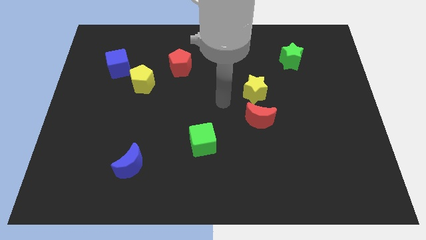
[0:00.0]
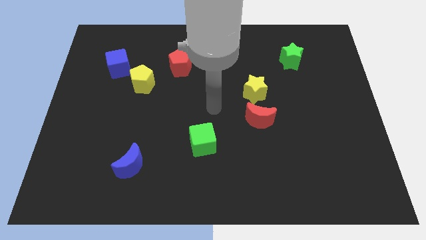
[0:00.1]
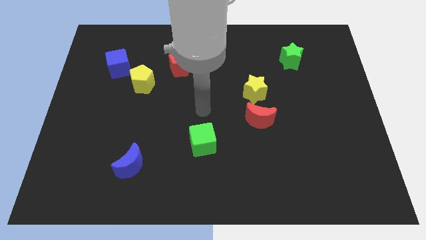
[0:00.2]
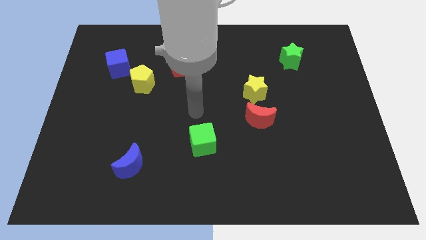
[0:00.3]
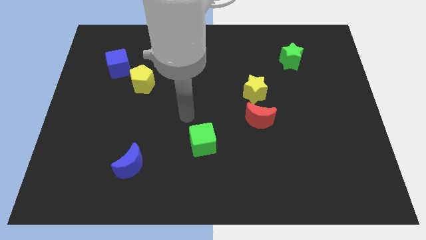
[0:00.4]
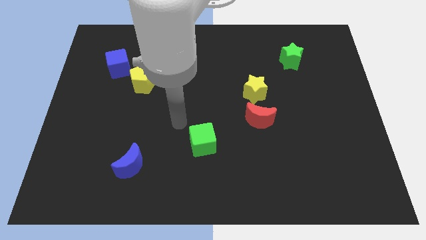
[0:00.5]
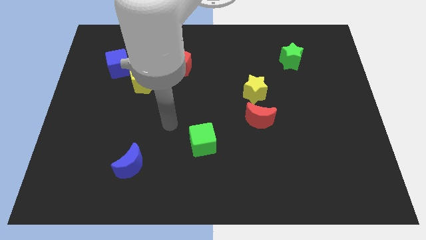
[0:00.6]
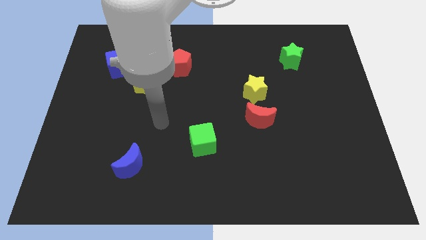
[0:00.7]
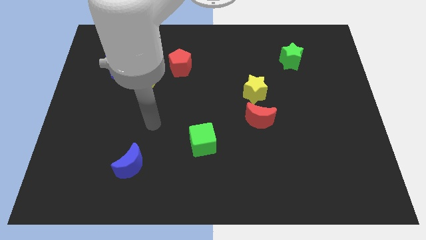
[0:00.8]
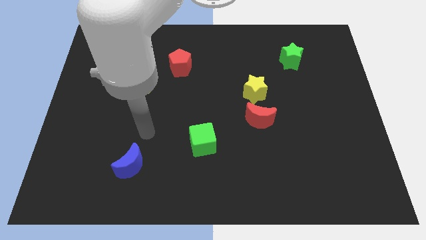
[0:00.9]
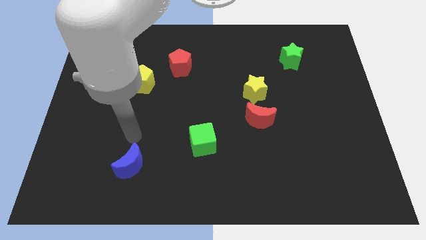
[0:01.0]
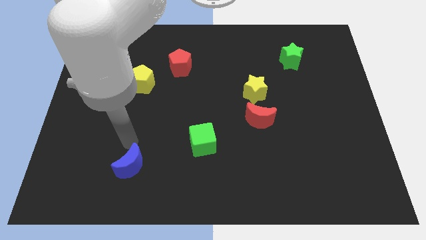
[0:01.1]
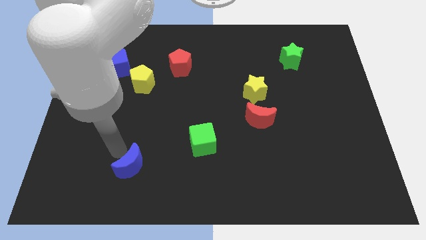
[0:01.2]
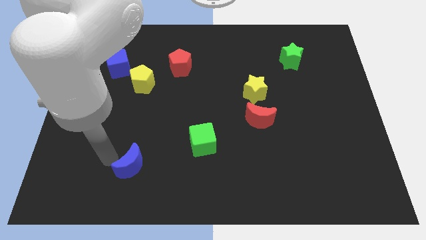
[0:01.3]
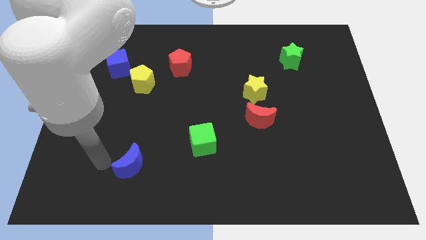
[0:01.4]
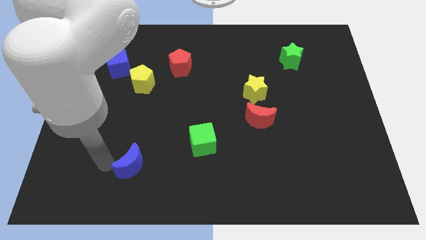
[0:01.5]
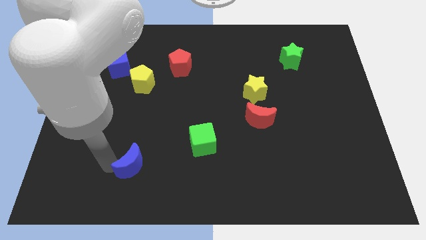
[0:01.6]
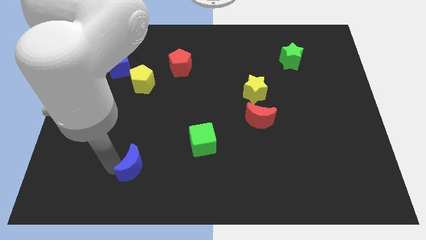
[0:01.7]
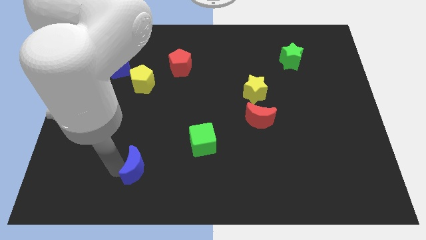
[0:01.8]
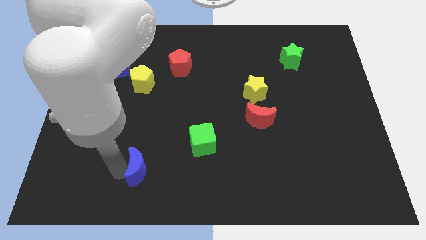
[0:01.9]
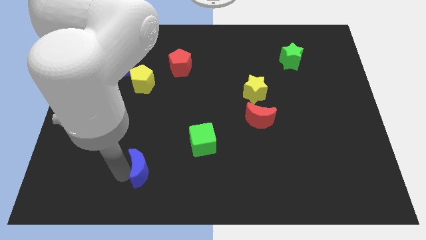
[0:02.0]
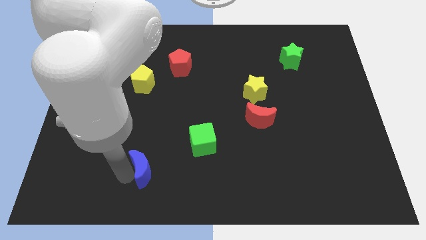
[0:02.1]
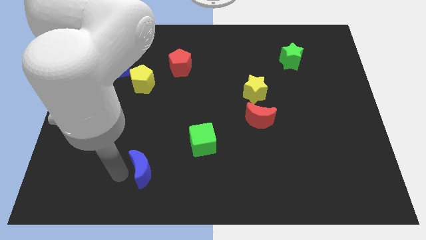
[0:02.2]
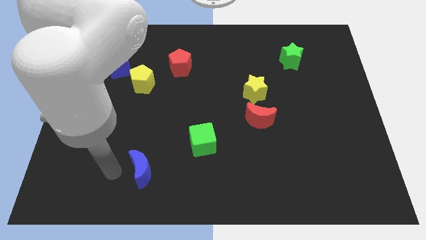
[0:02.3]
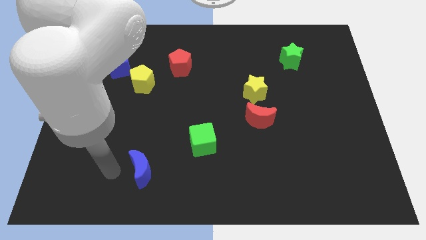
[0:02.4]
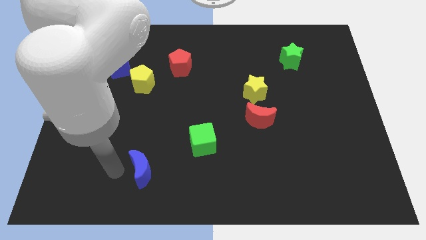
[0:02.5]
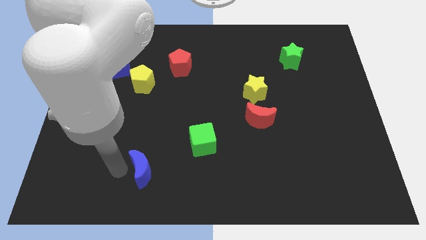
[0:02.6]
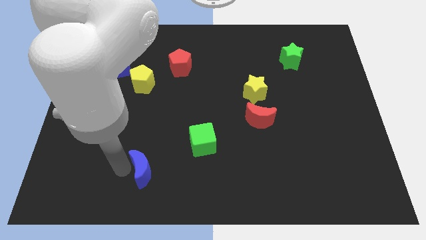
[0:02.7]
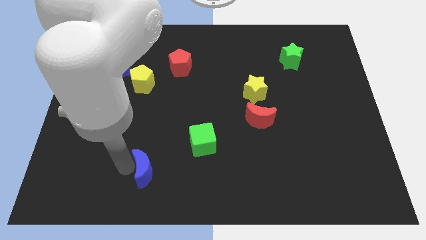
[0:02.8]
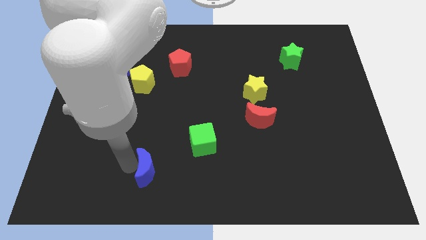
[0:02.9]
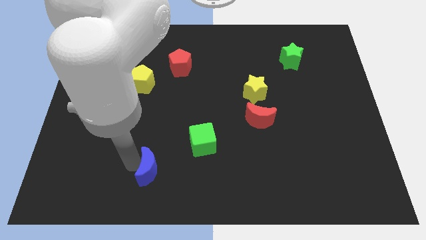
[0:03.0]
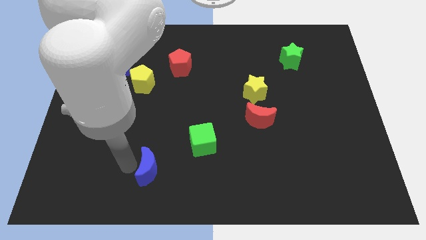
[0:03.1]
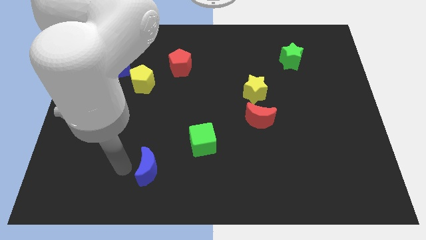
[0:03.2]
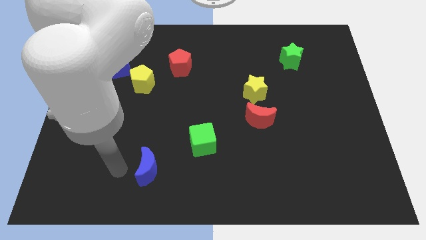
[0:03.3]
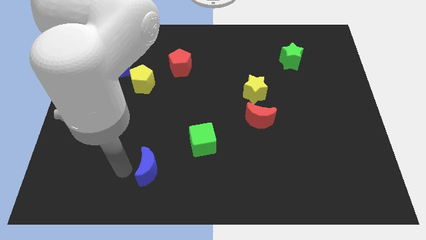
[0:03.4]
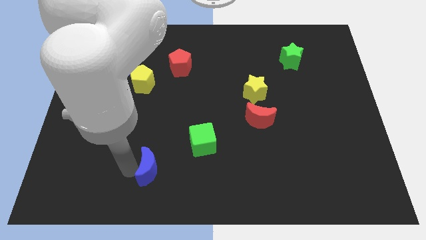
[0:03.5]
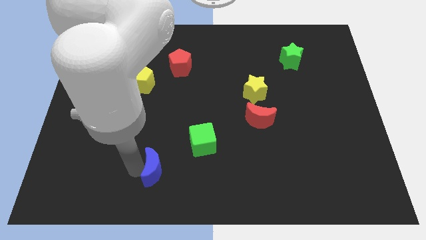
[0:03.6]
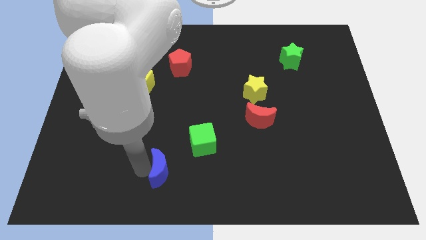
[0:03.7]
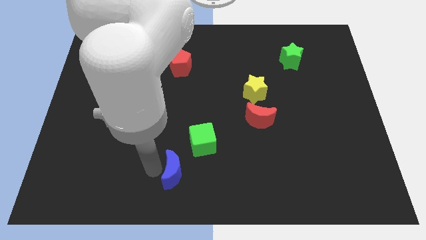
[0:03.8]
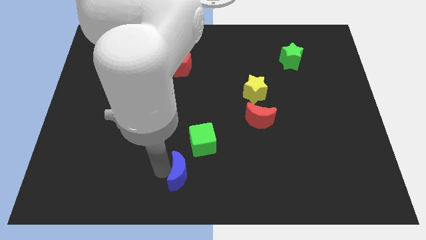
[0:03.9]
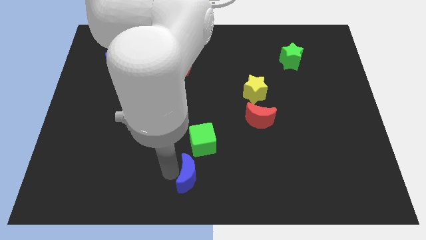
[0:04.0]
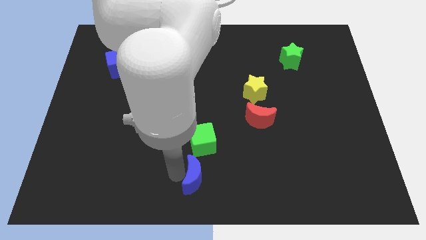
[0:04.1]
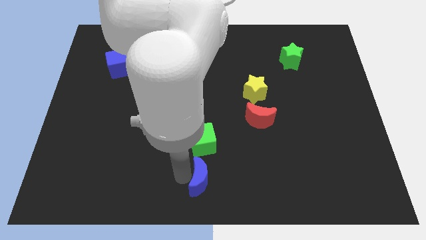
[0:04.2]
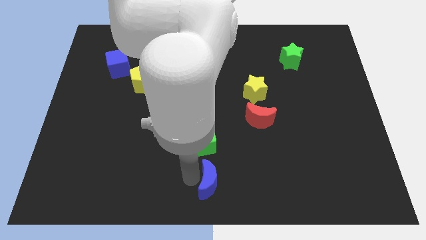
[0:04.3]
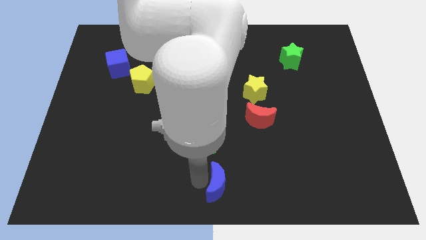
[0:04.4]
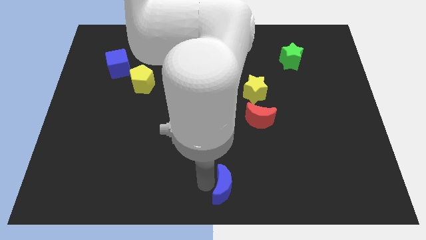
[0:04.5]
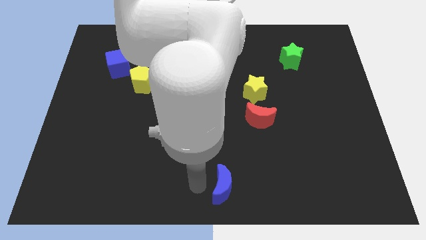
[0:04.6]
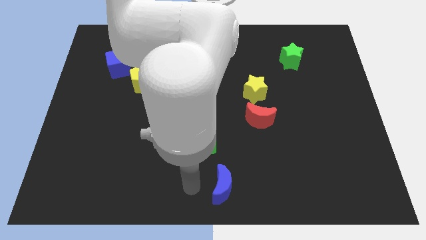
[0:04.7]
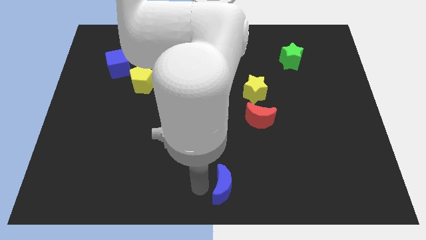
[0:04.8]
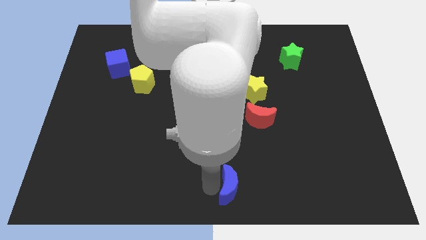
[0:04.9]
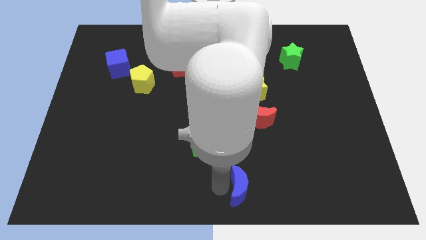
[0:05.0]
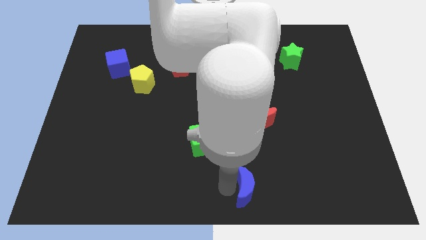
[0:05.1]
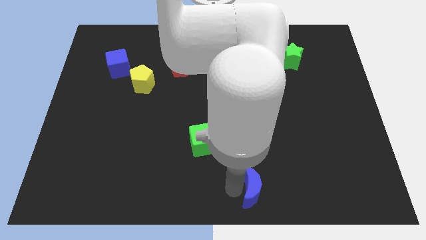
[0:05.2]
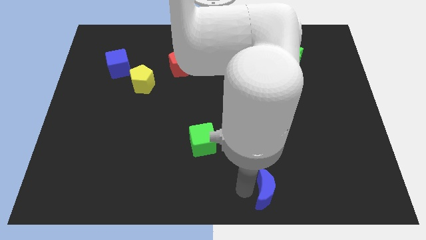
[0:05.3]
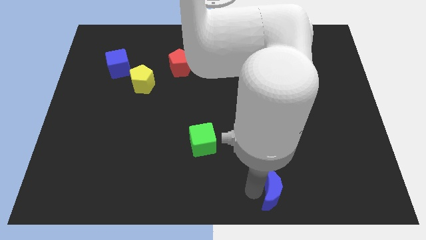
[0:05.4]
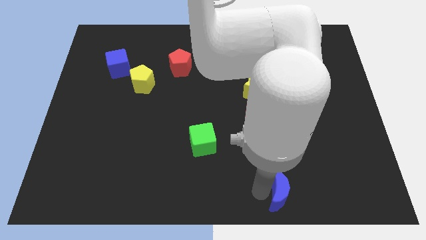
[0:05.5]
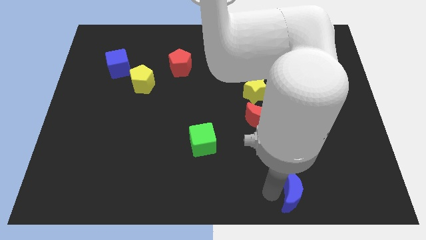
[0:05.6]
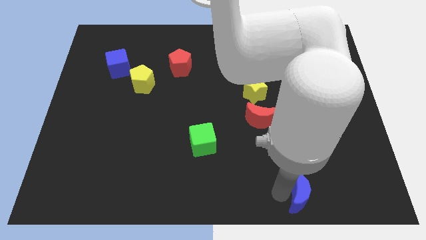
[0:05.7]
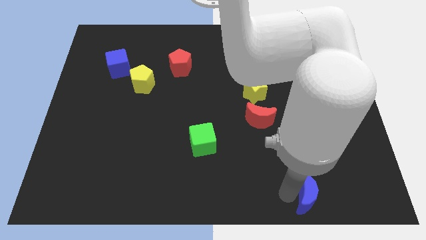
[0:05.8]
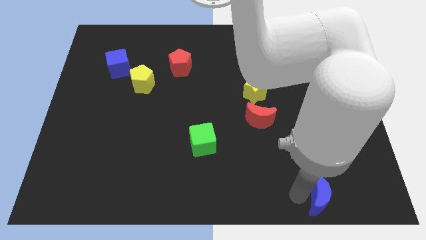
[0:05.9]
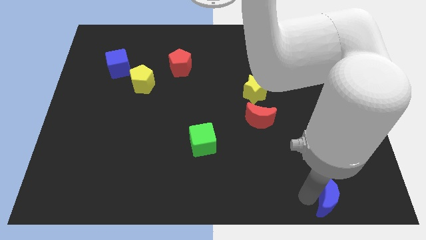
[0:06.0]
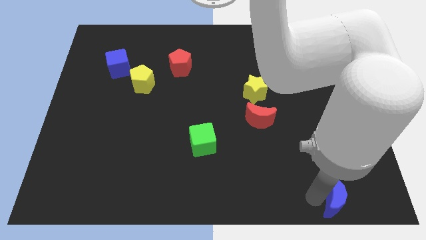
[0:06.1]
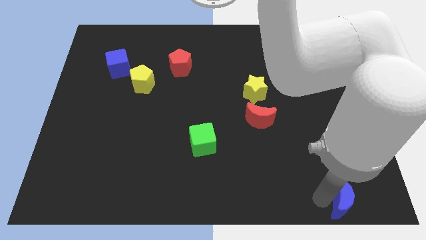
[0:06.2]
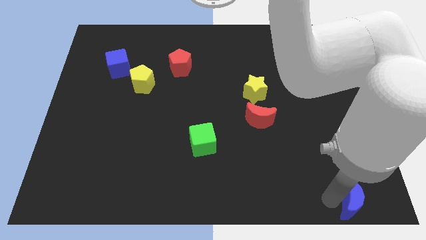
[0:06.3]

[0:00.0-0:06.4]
push the blue moon to the bottom right
